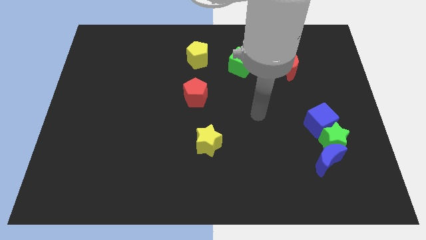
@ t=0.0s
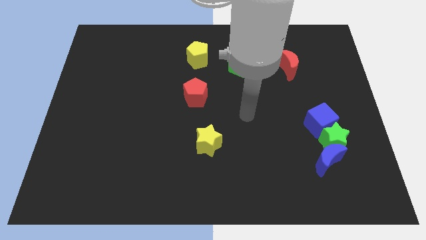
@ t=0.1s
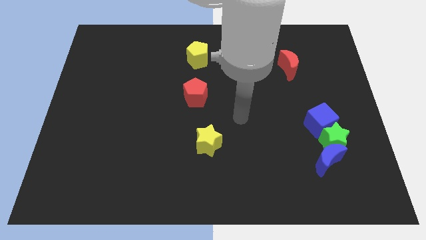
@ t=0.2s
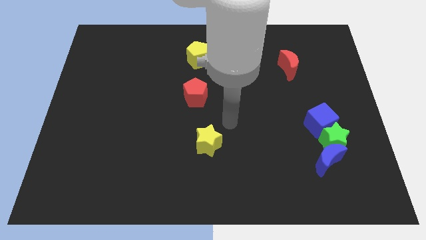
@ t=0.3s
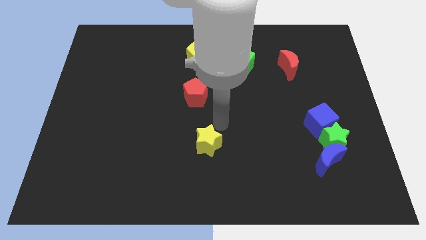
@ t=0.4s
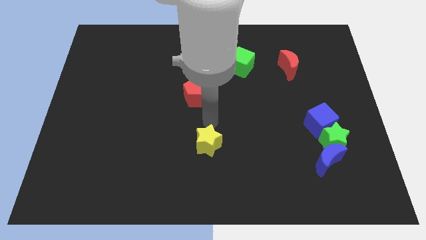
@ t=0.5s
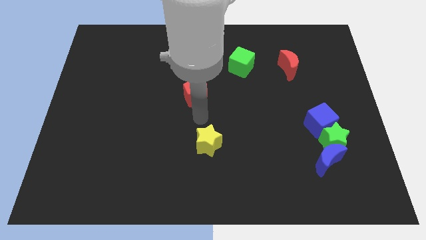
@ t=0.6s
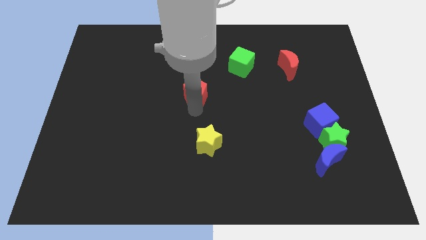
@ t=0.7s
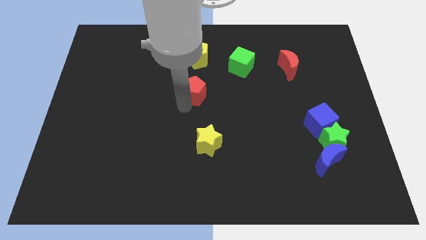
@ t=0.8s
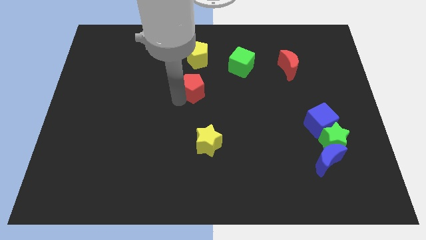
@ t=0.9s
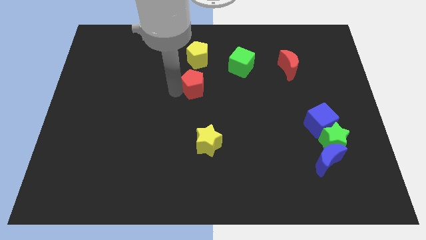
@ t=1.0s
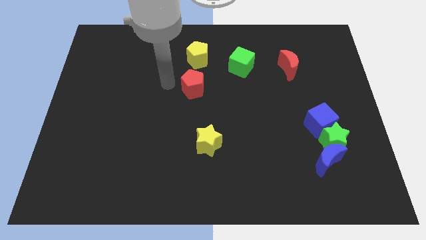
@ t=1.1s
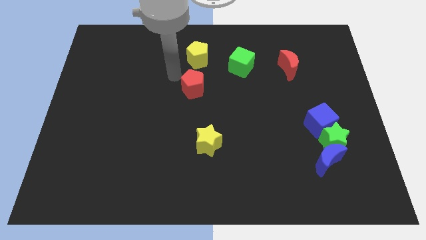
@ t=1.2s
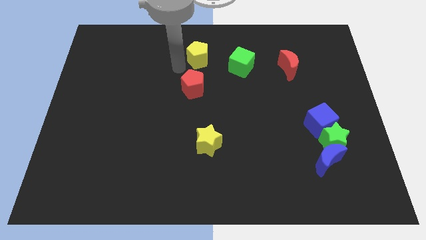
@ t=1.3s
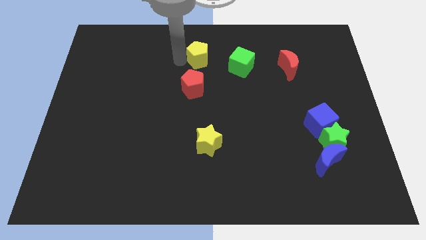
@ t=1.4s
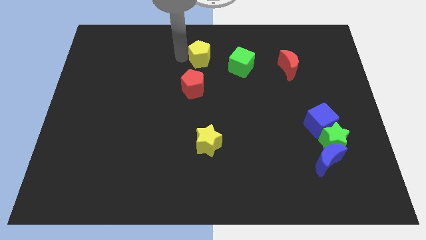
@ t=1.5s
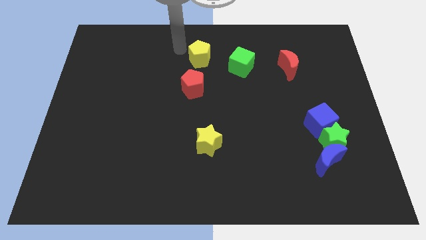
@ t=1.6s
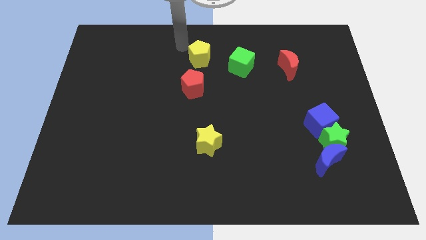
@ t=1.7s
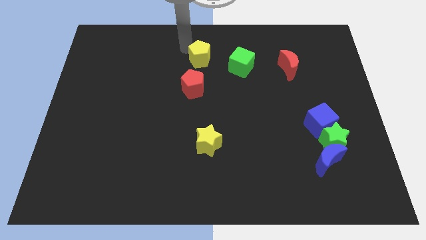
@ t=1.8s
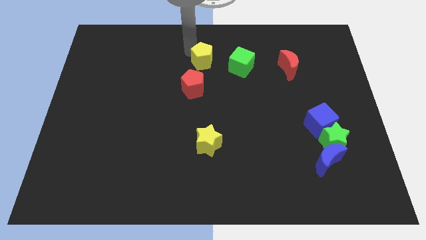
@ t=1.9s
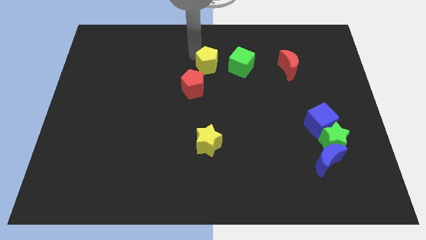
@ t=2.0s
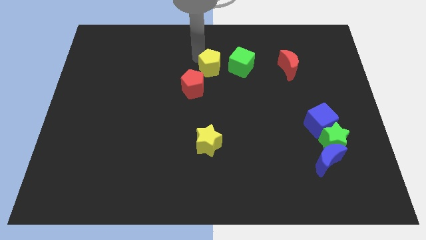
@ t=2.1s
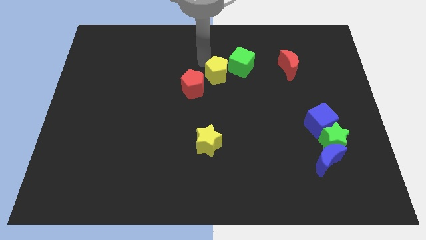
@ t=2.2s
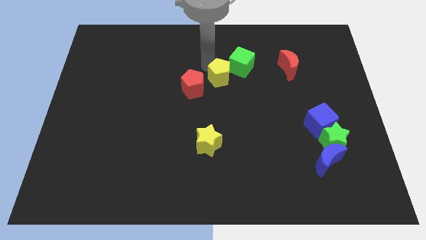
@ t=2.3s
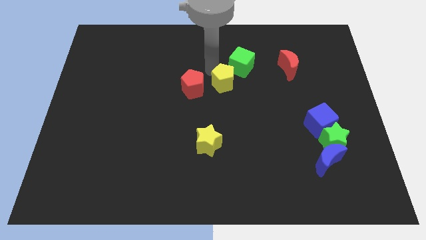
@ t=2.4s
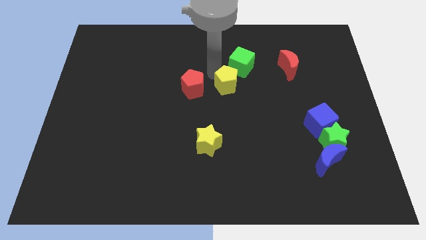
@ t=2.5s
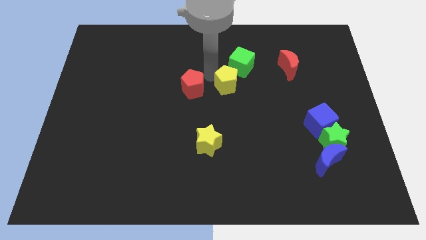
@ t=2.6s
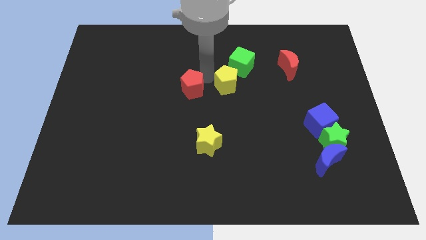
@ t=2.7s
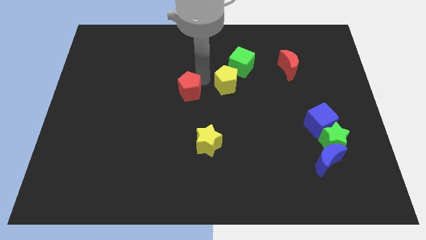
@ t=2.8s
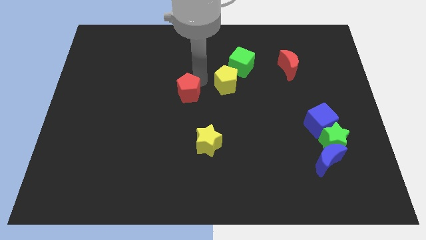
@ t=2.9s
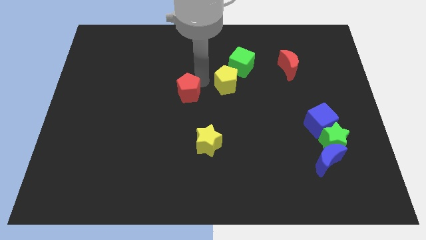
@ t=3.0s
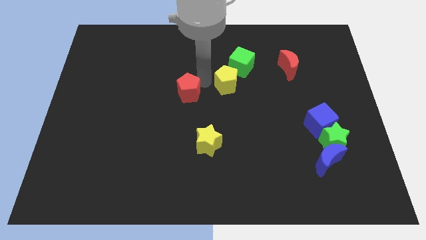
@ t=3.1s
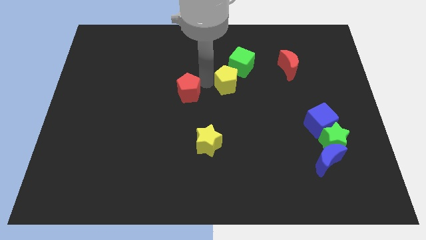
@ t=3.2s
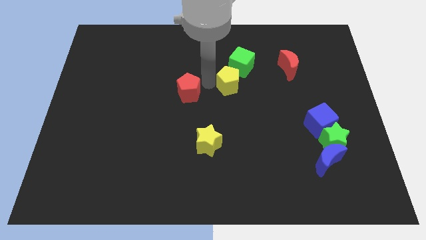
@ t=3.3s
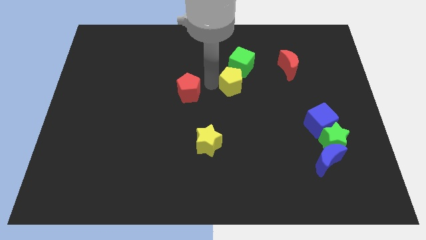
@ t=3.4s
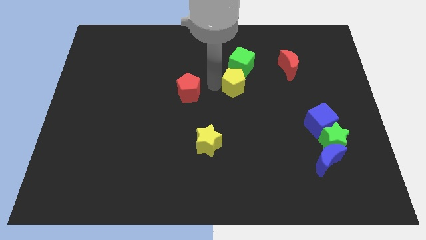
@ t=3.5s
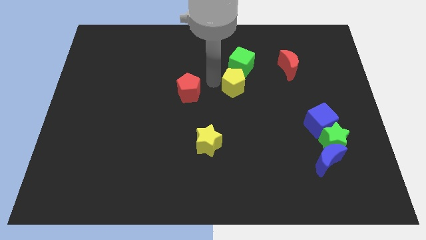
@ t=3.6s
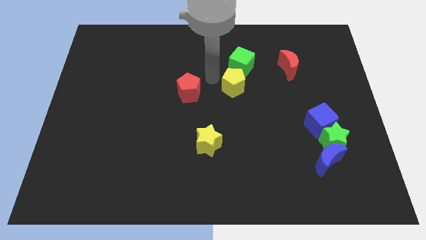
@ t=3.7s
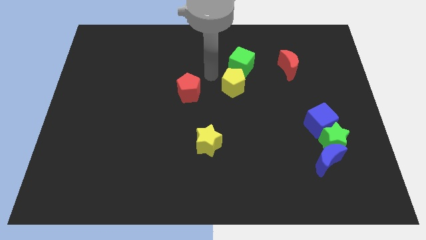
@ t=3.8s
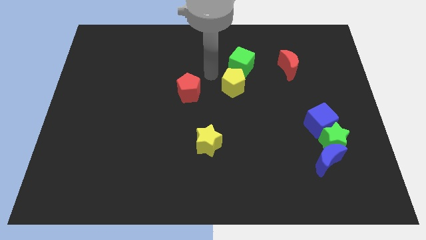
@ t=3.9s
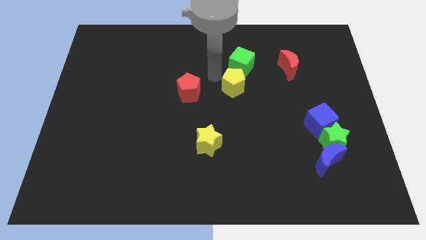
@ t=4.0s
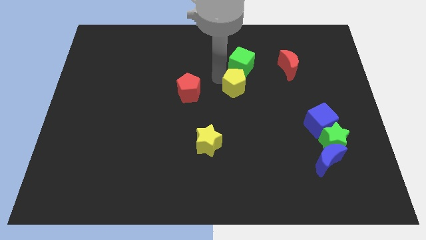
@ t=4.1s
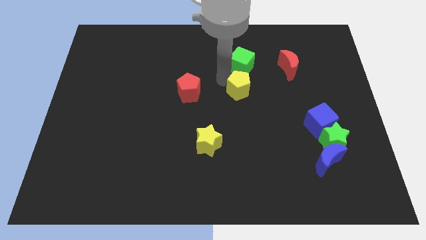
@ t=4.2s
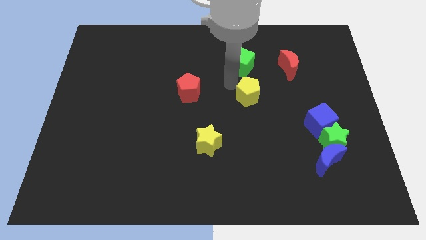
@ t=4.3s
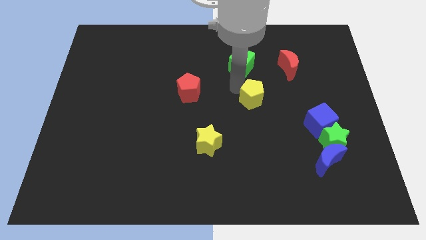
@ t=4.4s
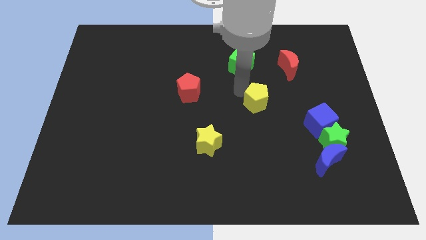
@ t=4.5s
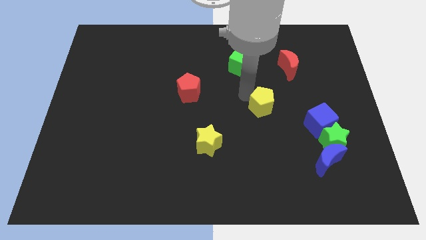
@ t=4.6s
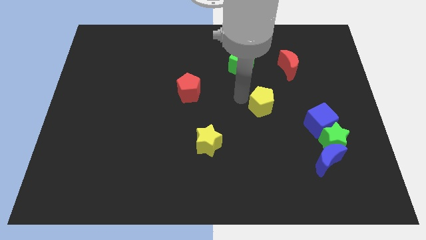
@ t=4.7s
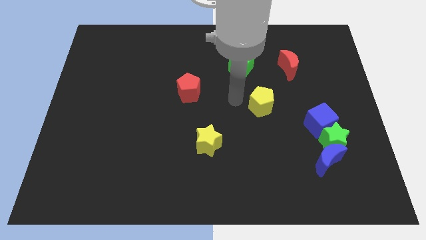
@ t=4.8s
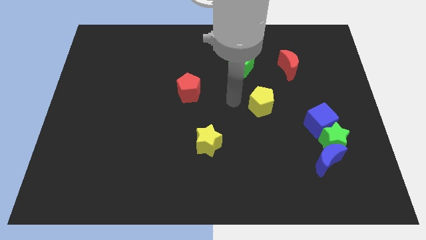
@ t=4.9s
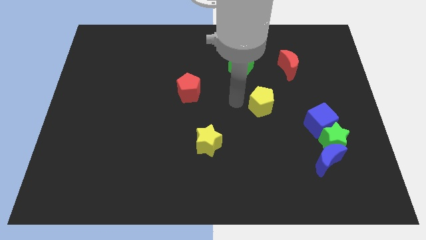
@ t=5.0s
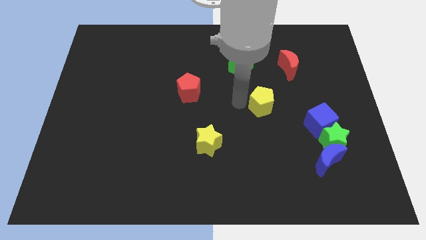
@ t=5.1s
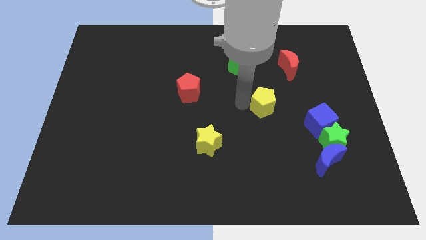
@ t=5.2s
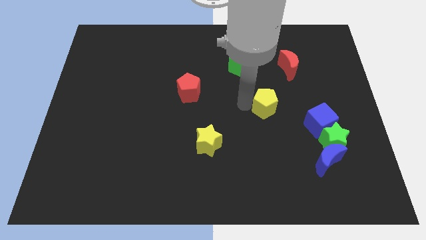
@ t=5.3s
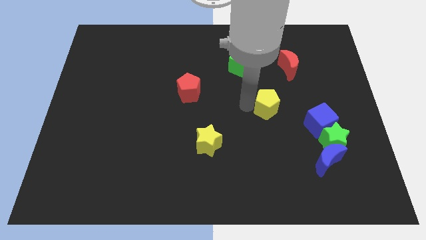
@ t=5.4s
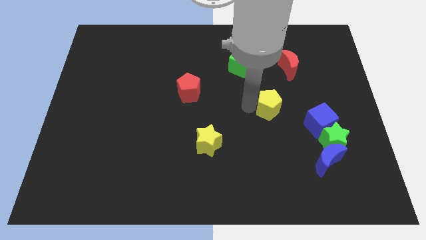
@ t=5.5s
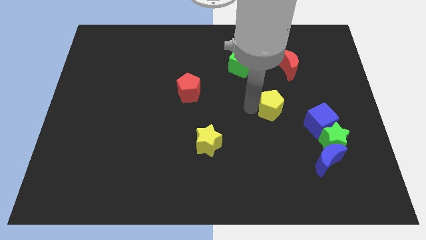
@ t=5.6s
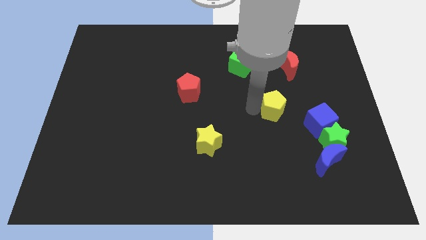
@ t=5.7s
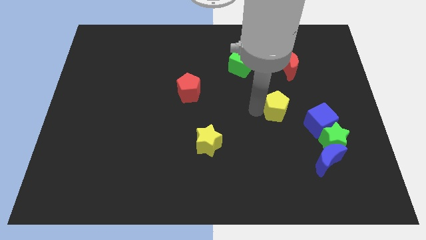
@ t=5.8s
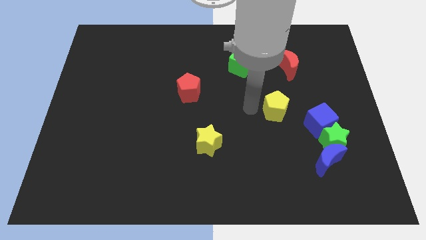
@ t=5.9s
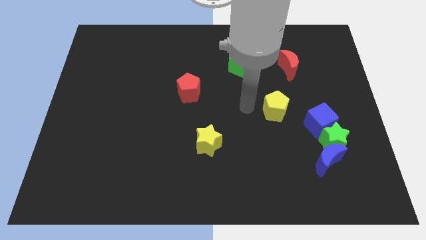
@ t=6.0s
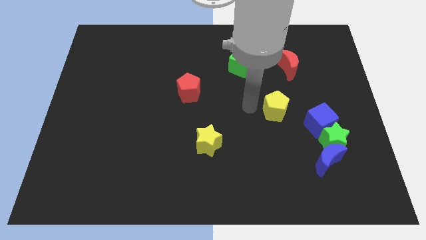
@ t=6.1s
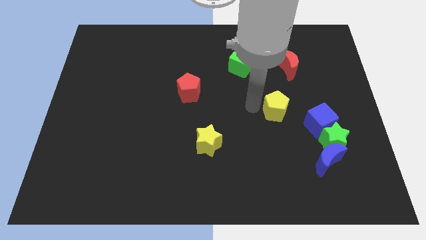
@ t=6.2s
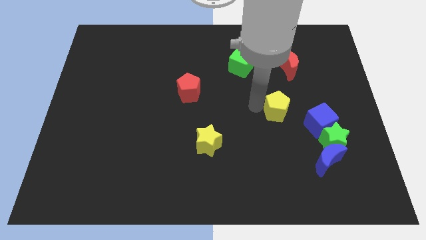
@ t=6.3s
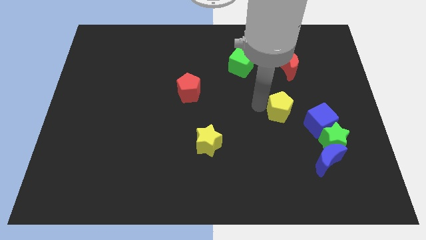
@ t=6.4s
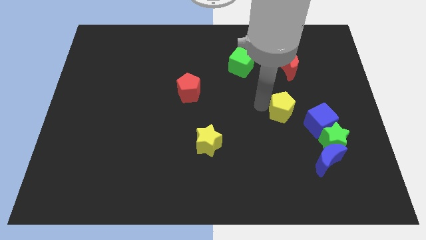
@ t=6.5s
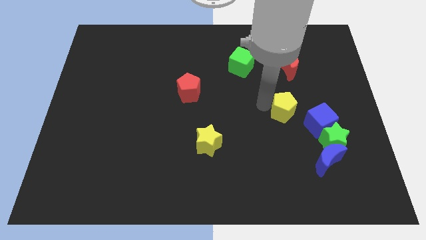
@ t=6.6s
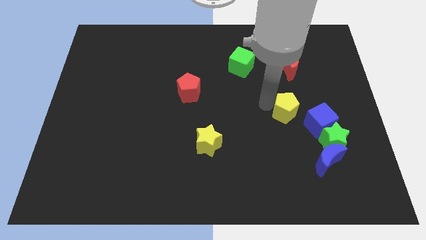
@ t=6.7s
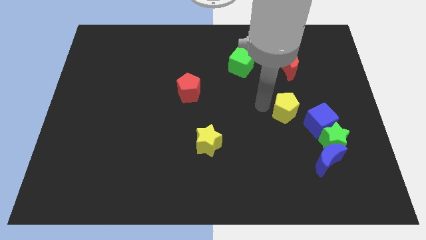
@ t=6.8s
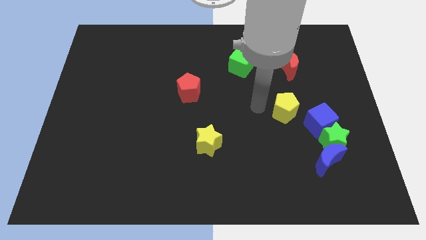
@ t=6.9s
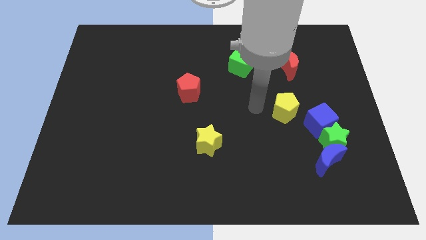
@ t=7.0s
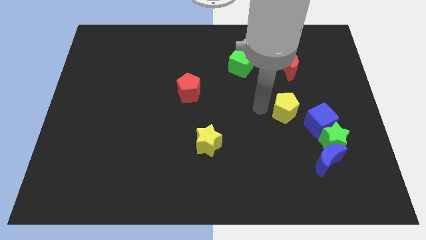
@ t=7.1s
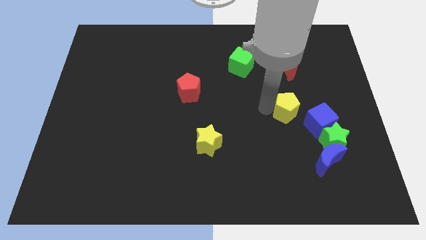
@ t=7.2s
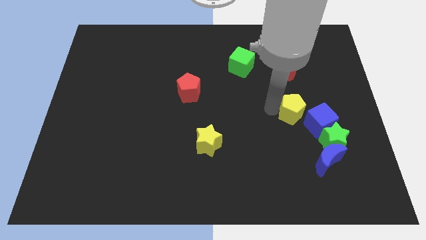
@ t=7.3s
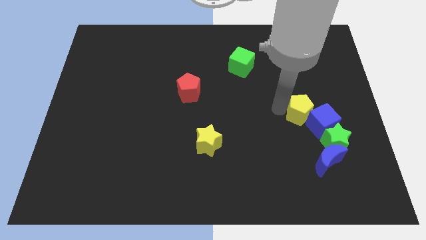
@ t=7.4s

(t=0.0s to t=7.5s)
move the yellow pentagon close to the blue cube
